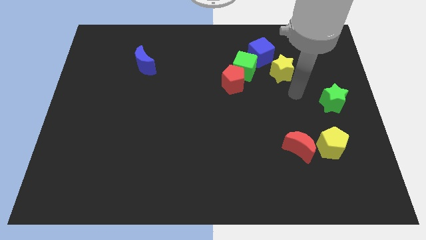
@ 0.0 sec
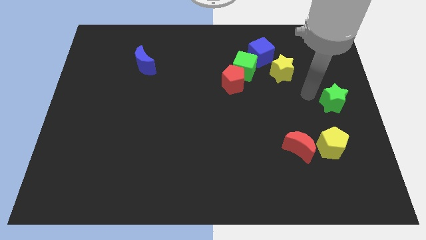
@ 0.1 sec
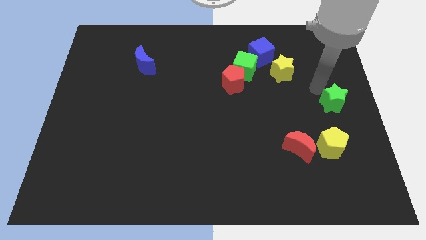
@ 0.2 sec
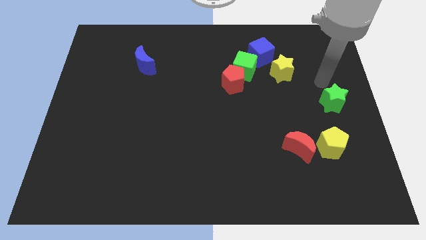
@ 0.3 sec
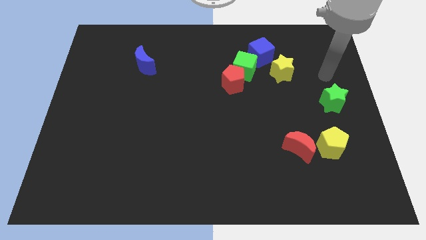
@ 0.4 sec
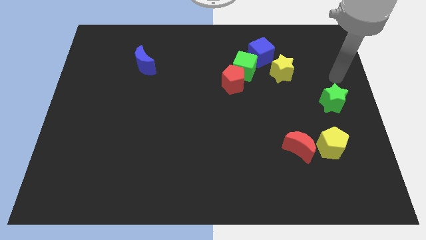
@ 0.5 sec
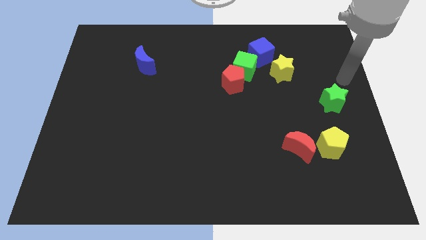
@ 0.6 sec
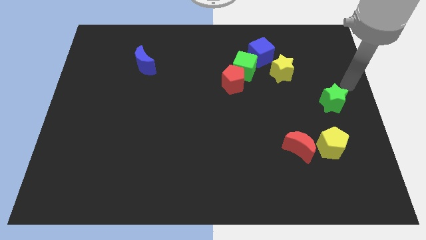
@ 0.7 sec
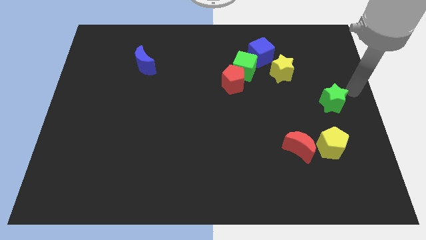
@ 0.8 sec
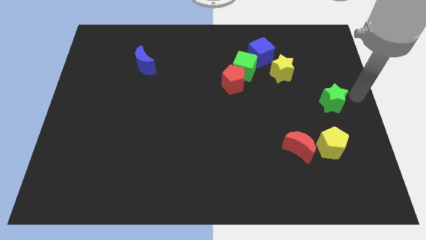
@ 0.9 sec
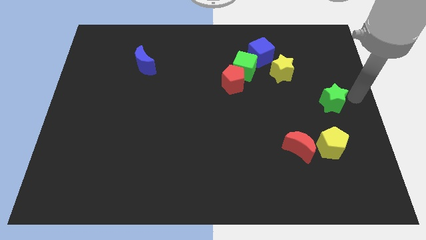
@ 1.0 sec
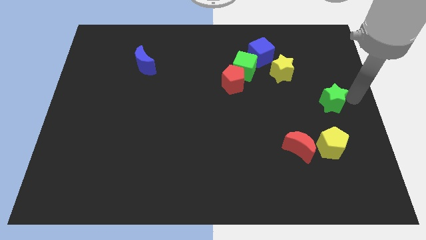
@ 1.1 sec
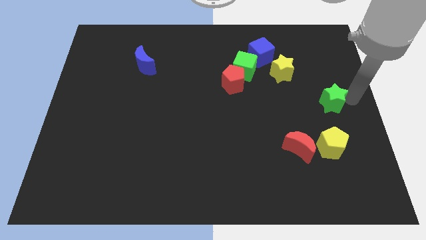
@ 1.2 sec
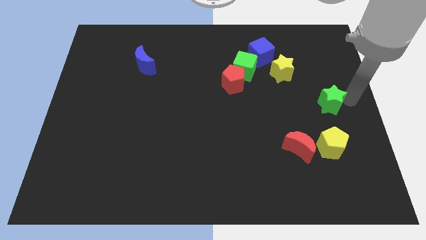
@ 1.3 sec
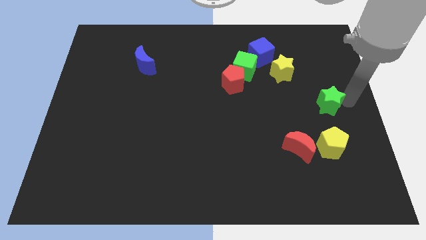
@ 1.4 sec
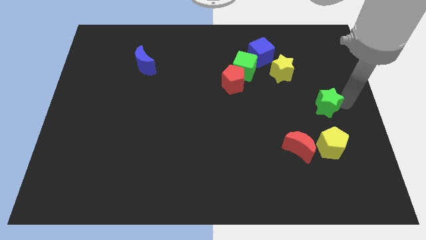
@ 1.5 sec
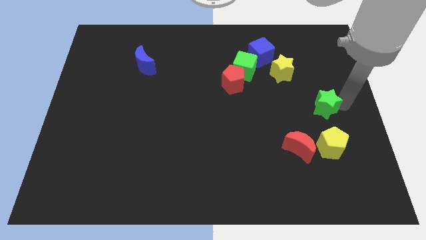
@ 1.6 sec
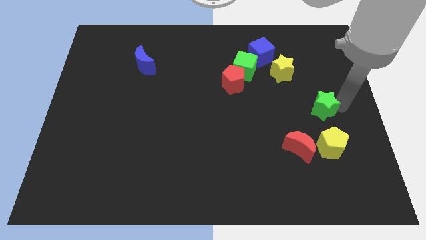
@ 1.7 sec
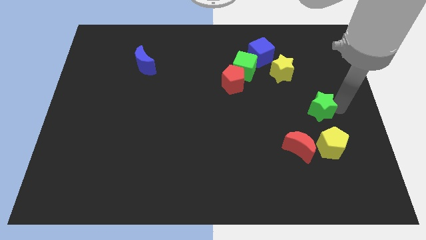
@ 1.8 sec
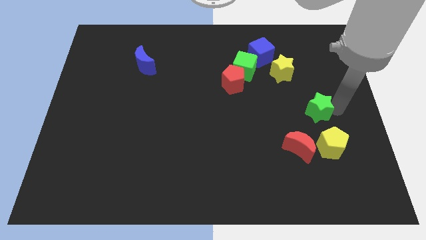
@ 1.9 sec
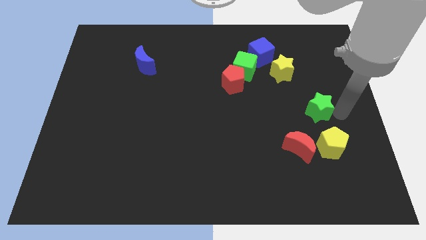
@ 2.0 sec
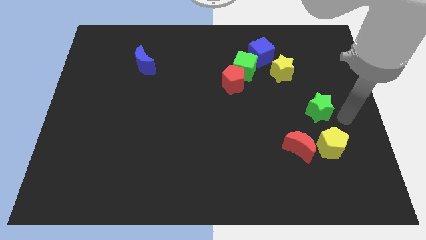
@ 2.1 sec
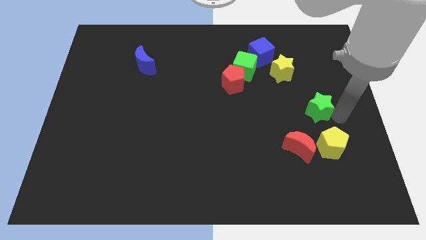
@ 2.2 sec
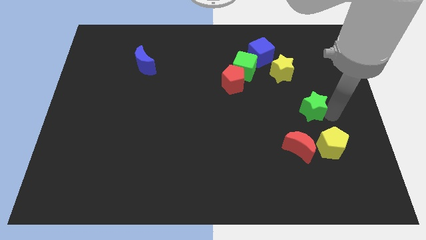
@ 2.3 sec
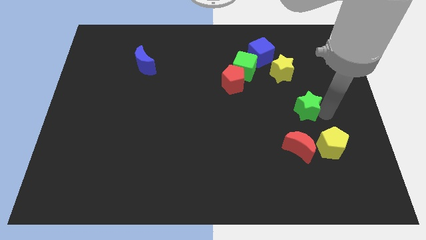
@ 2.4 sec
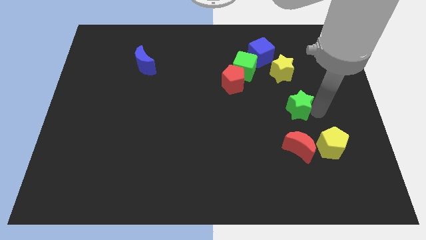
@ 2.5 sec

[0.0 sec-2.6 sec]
slide the green star to the left a little

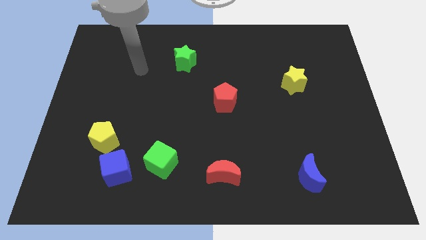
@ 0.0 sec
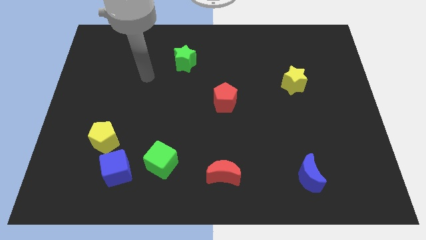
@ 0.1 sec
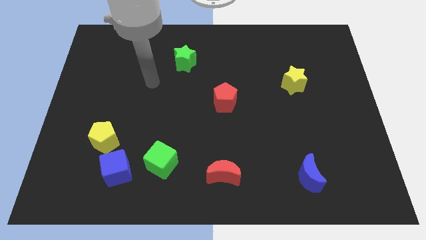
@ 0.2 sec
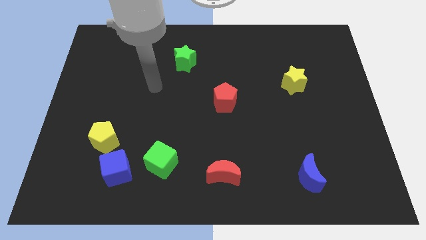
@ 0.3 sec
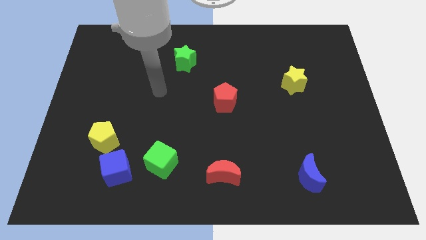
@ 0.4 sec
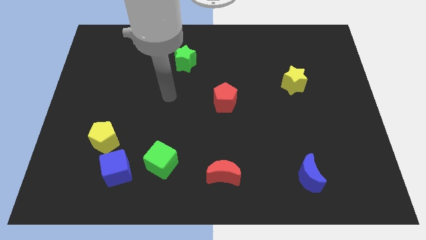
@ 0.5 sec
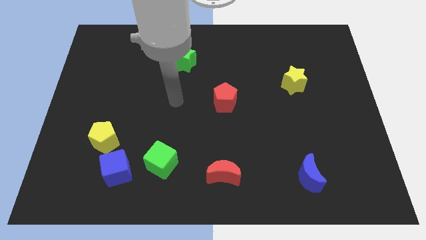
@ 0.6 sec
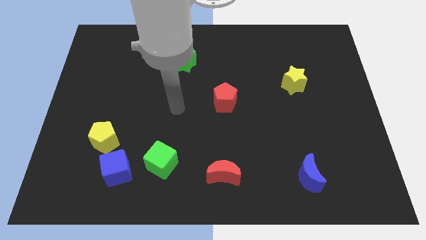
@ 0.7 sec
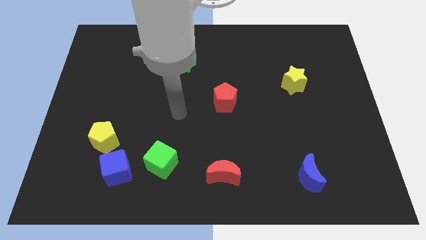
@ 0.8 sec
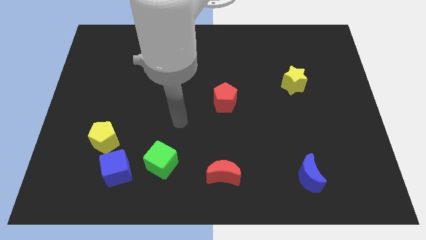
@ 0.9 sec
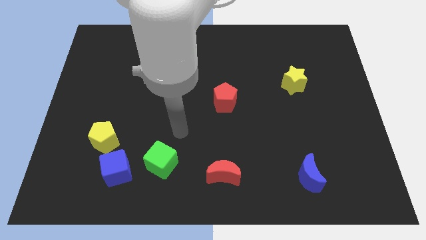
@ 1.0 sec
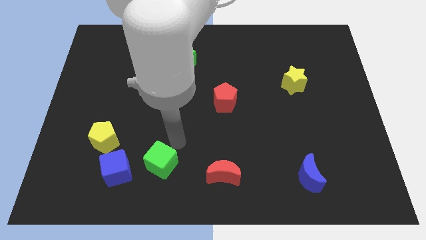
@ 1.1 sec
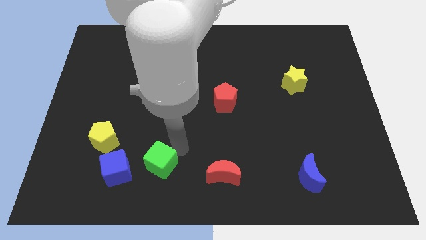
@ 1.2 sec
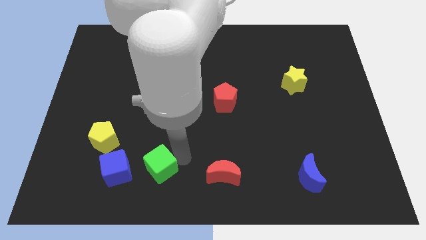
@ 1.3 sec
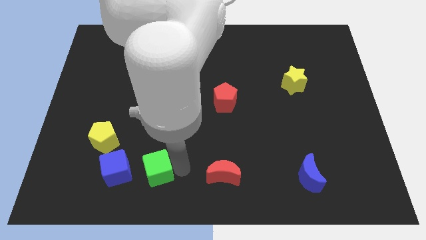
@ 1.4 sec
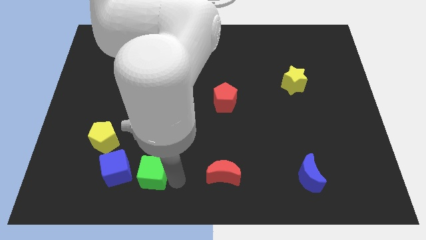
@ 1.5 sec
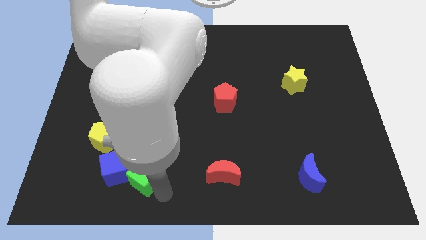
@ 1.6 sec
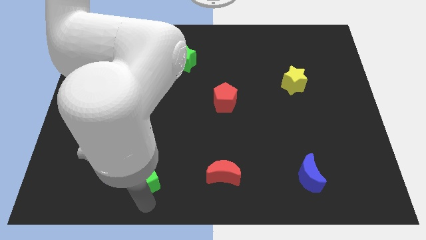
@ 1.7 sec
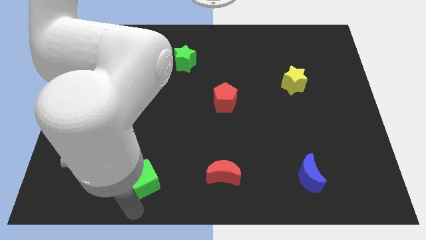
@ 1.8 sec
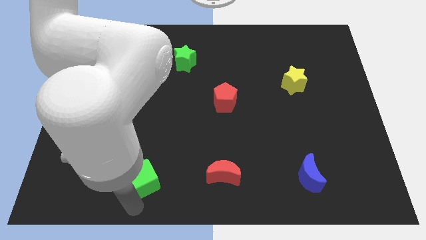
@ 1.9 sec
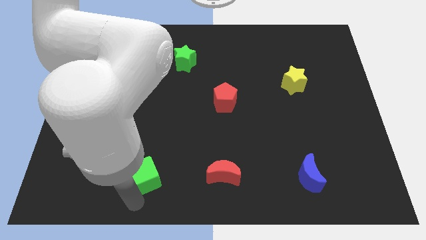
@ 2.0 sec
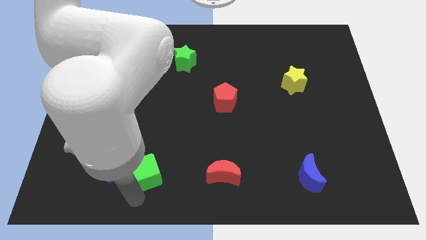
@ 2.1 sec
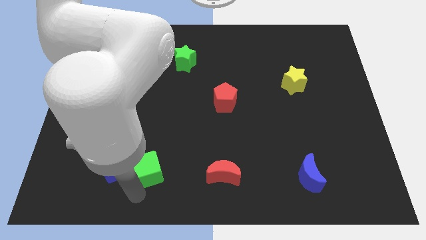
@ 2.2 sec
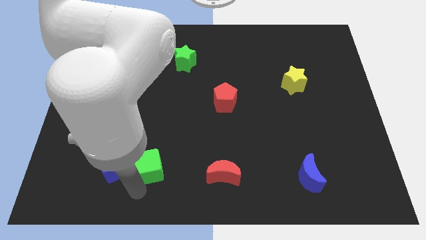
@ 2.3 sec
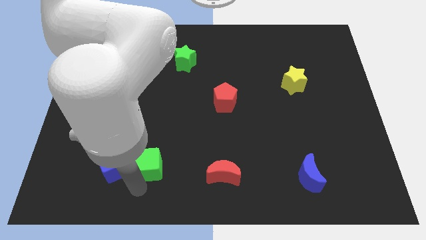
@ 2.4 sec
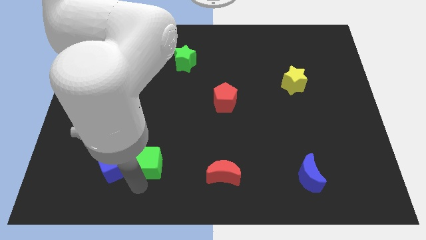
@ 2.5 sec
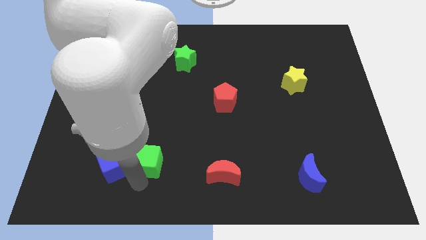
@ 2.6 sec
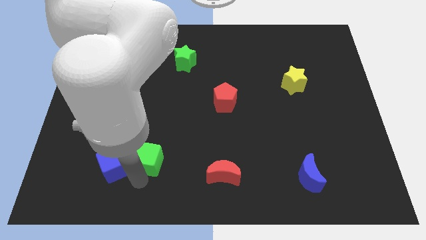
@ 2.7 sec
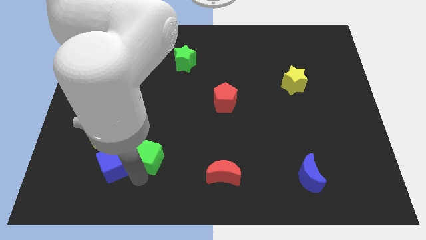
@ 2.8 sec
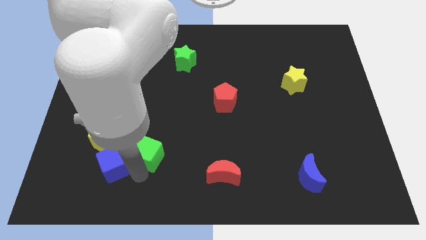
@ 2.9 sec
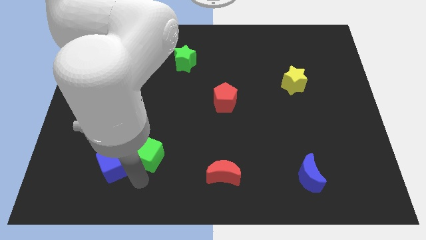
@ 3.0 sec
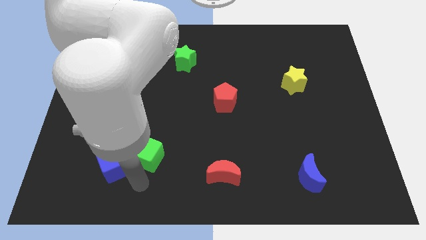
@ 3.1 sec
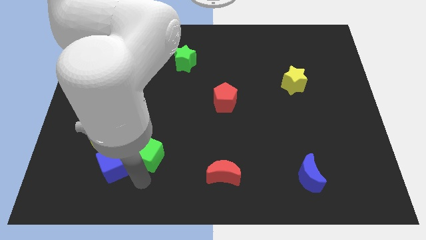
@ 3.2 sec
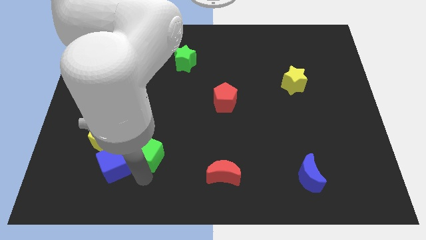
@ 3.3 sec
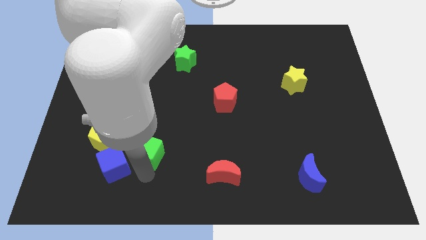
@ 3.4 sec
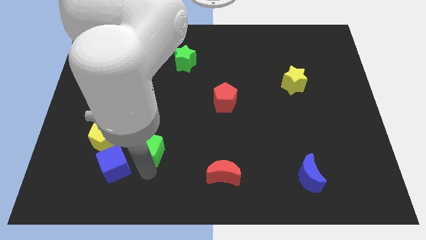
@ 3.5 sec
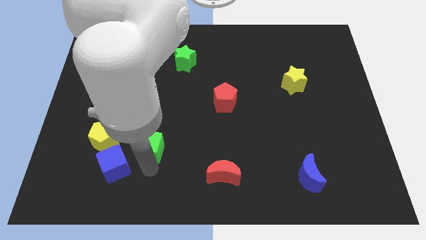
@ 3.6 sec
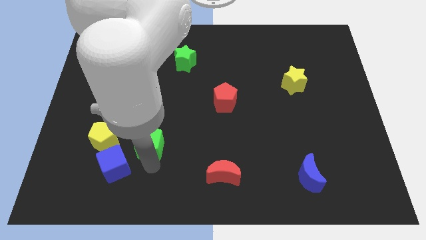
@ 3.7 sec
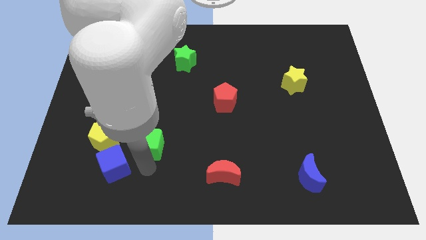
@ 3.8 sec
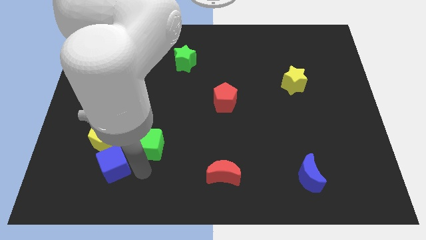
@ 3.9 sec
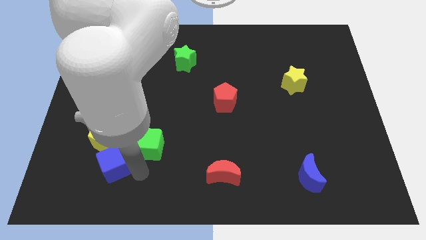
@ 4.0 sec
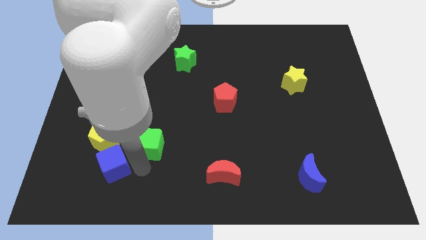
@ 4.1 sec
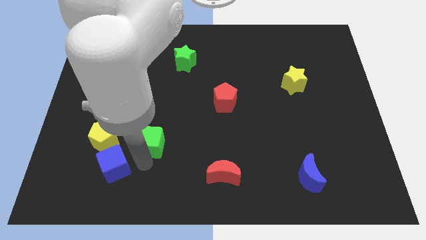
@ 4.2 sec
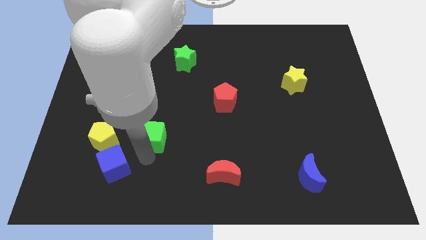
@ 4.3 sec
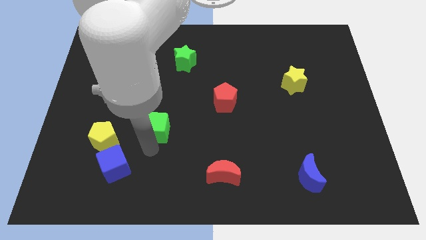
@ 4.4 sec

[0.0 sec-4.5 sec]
slide the green cube a little upwards

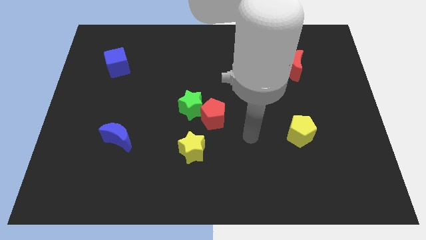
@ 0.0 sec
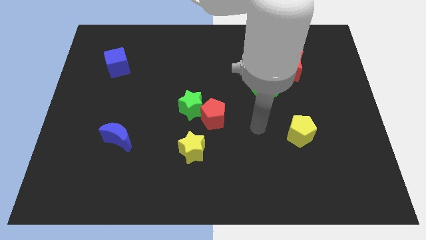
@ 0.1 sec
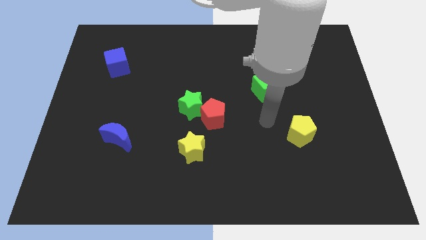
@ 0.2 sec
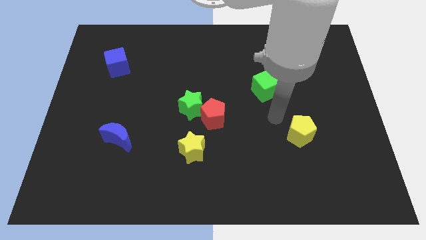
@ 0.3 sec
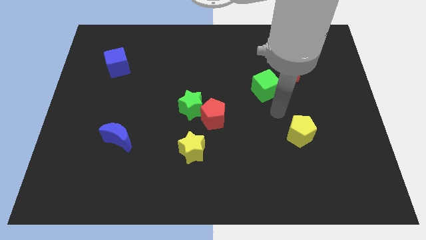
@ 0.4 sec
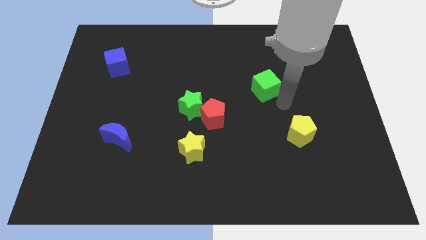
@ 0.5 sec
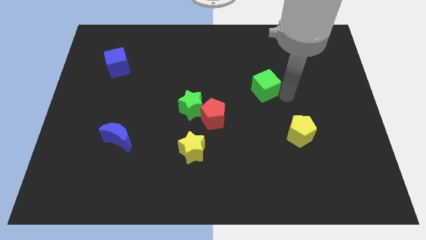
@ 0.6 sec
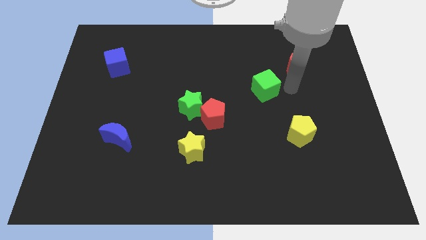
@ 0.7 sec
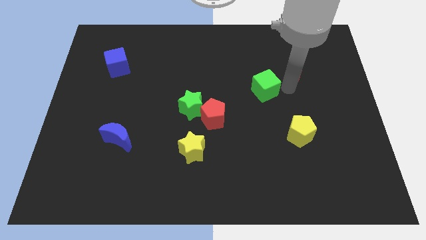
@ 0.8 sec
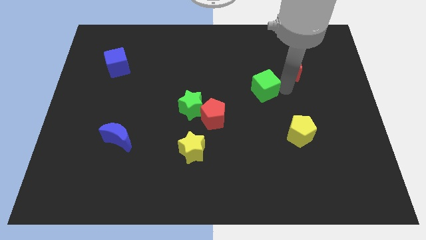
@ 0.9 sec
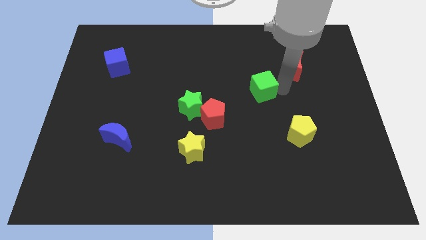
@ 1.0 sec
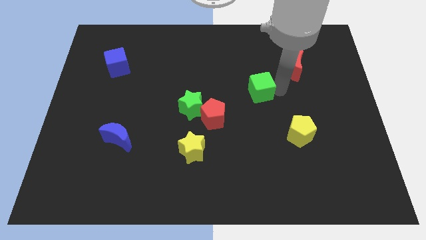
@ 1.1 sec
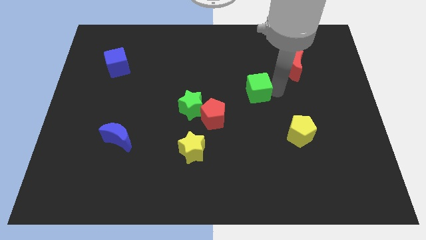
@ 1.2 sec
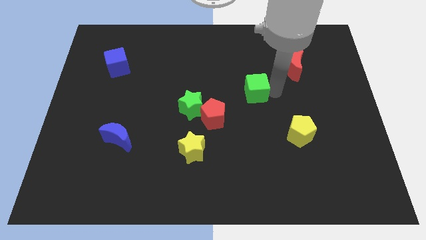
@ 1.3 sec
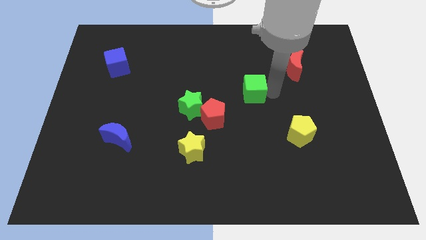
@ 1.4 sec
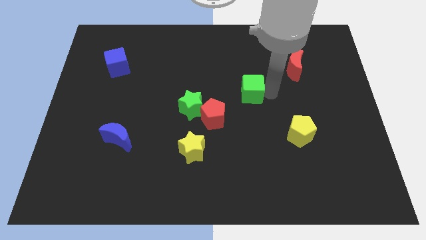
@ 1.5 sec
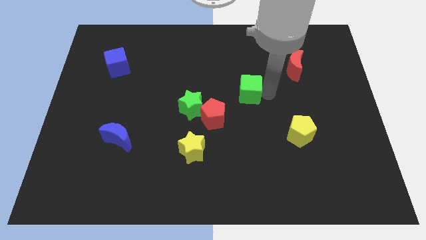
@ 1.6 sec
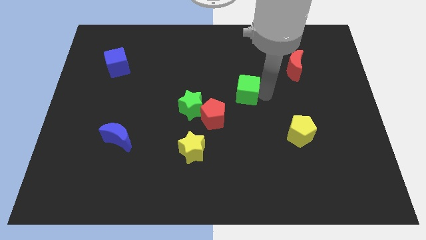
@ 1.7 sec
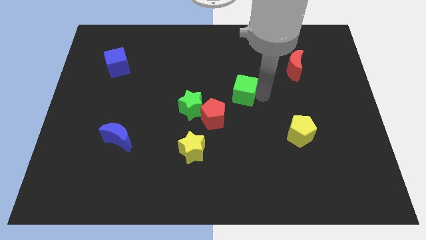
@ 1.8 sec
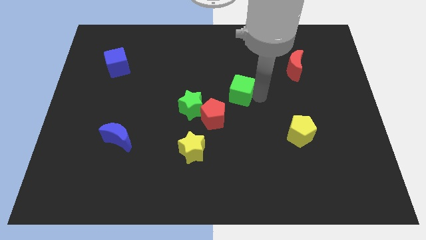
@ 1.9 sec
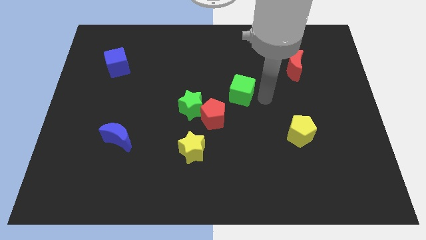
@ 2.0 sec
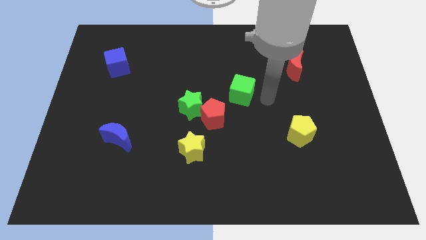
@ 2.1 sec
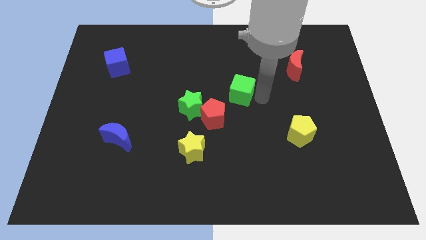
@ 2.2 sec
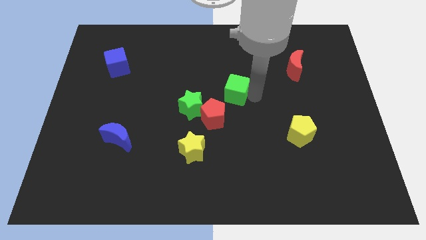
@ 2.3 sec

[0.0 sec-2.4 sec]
move the green cube left a little bit
